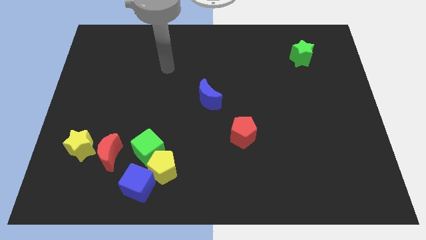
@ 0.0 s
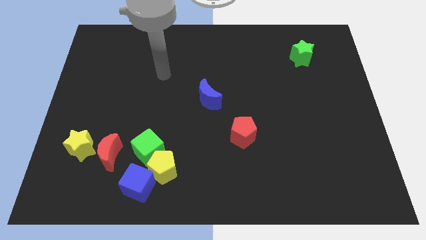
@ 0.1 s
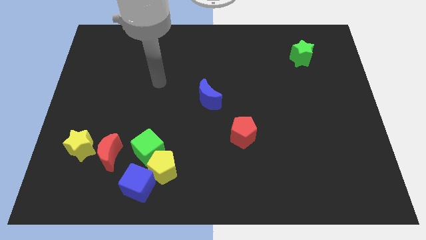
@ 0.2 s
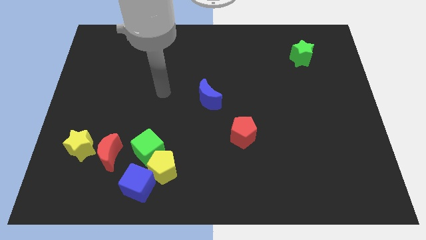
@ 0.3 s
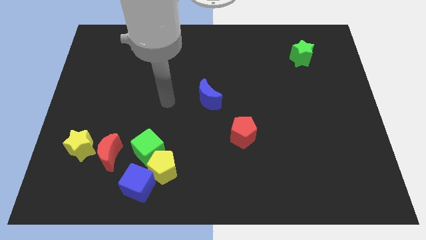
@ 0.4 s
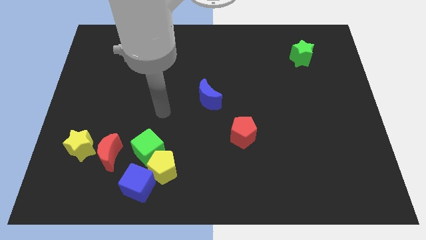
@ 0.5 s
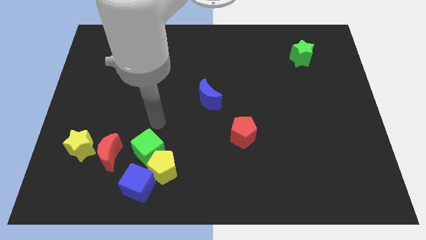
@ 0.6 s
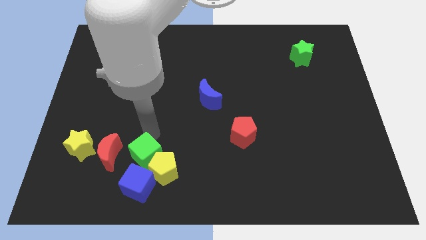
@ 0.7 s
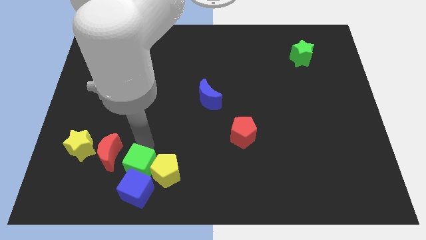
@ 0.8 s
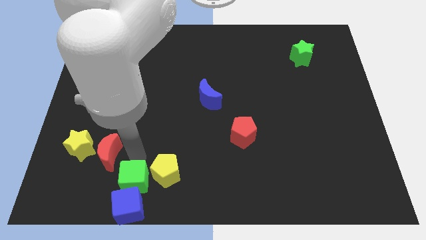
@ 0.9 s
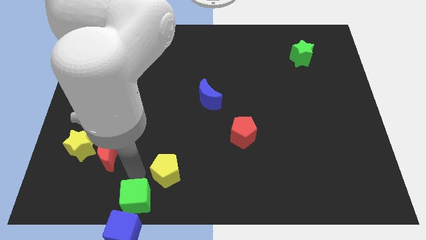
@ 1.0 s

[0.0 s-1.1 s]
separate the yellow pentagon from the green cube and blue cube

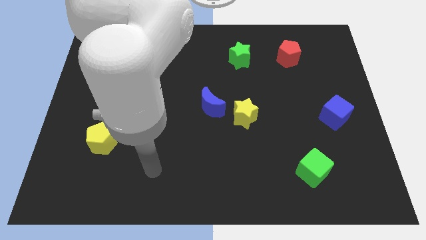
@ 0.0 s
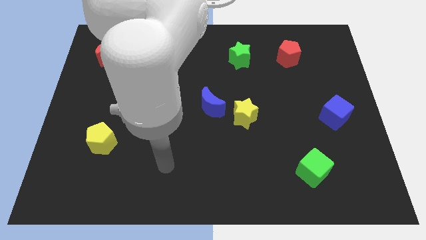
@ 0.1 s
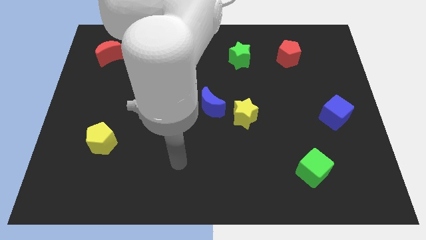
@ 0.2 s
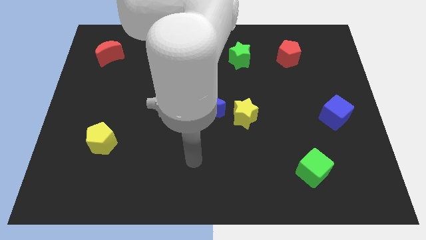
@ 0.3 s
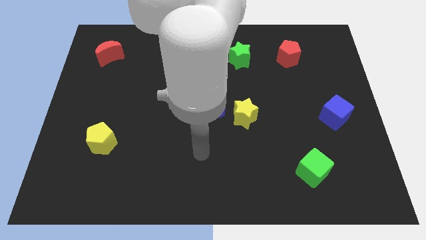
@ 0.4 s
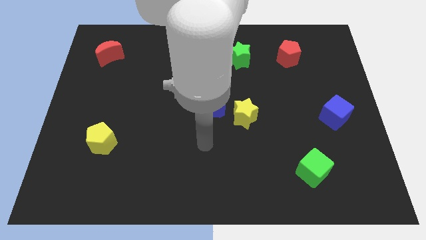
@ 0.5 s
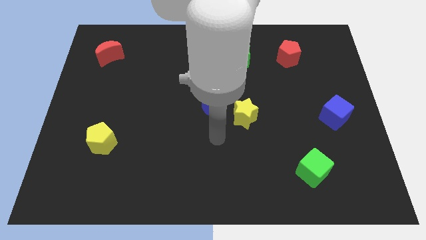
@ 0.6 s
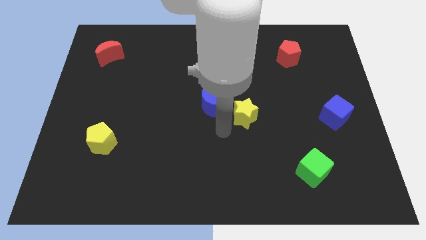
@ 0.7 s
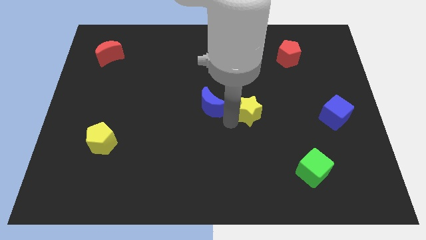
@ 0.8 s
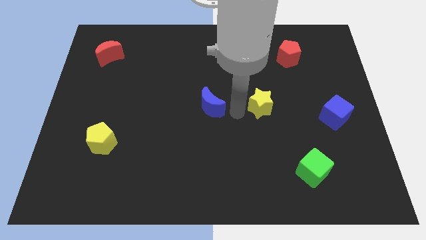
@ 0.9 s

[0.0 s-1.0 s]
move the blue moon away from the yellow star

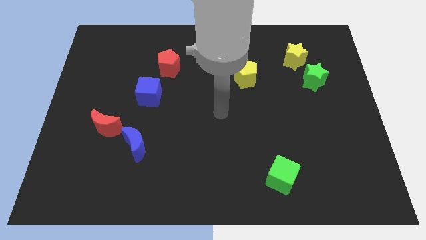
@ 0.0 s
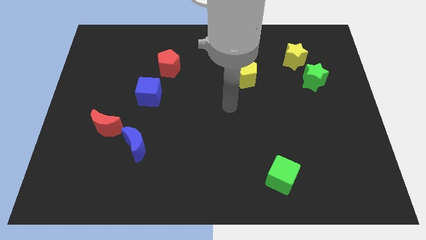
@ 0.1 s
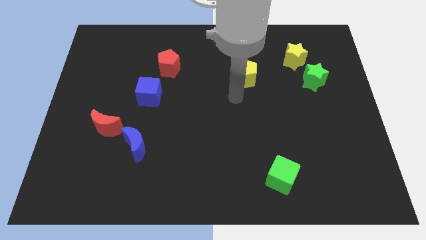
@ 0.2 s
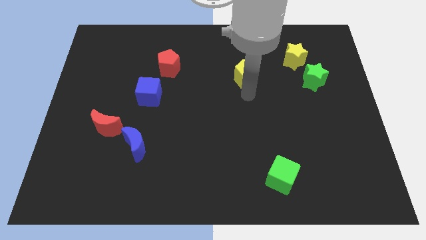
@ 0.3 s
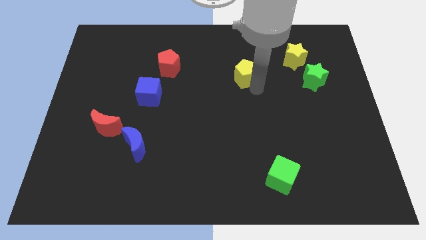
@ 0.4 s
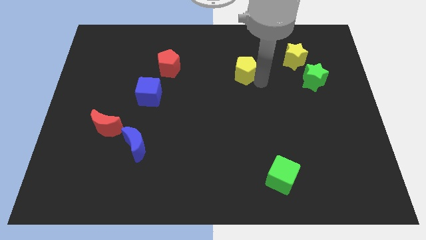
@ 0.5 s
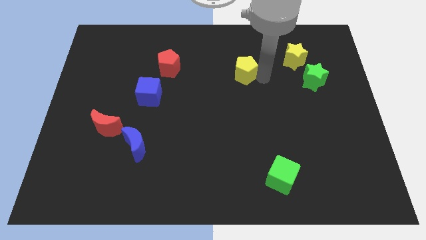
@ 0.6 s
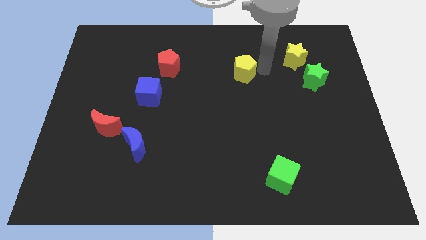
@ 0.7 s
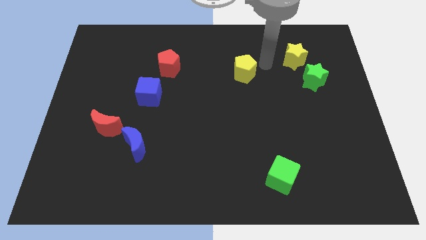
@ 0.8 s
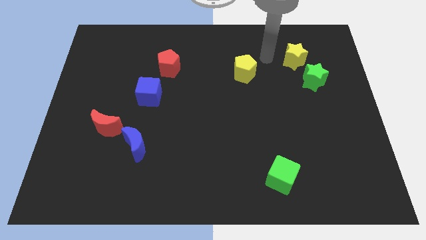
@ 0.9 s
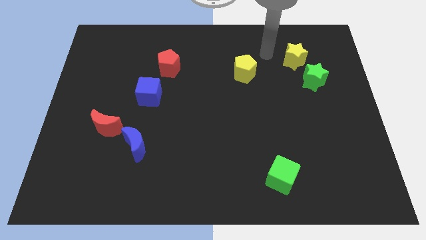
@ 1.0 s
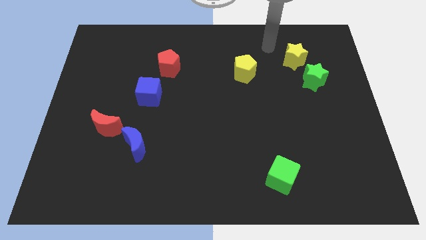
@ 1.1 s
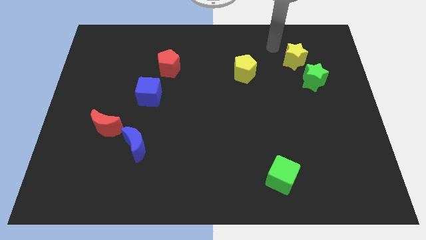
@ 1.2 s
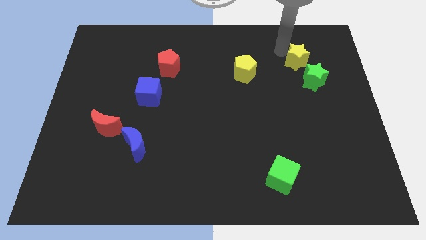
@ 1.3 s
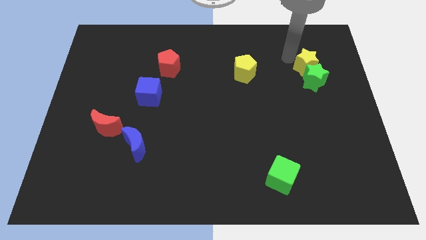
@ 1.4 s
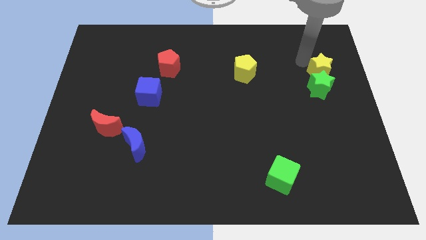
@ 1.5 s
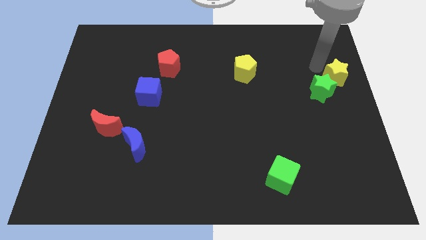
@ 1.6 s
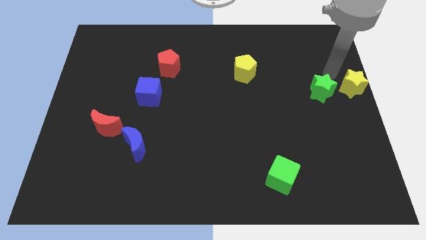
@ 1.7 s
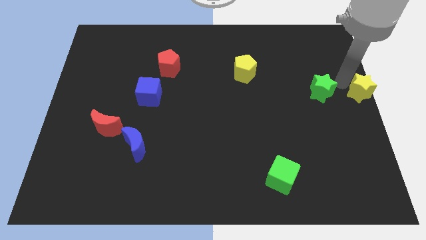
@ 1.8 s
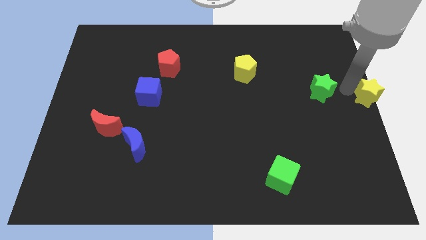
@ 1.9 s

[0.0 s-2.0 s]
pull the green star apart from the yellow star

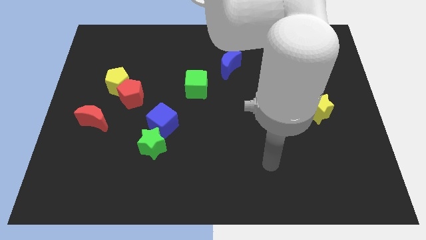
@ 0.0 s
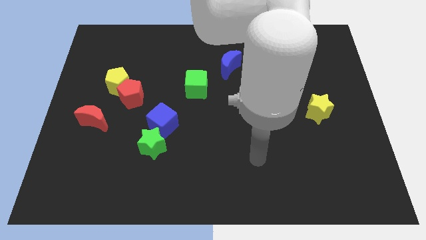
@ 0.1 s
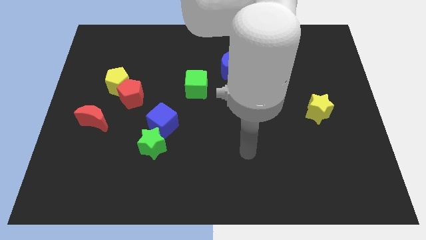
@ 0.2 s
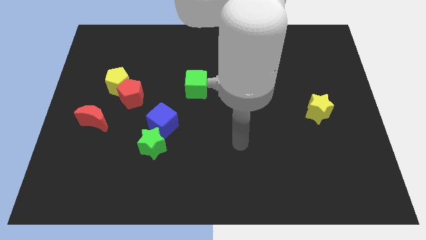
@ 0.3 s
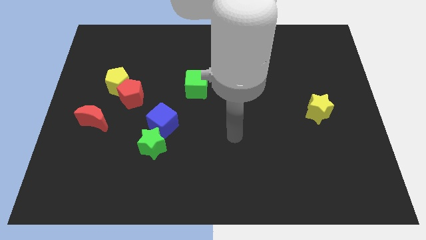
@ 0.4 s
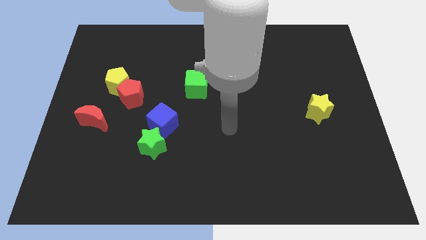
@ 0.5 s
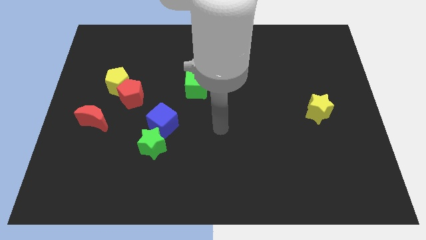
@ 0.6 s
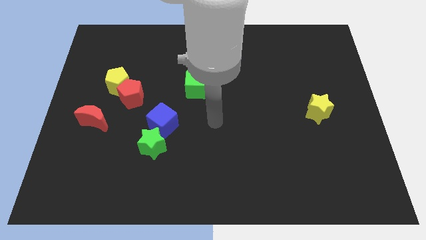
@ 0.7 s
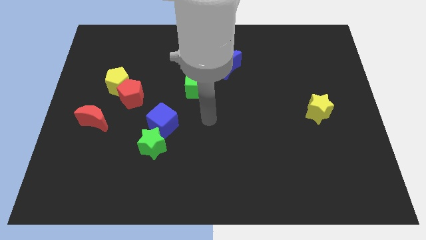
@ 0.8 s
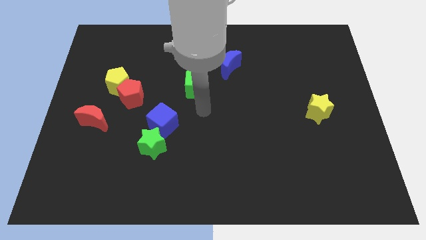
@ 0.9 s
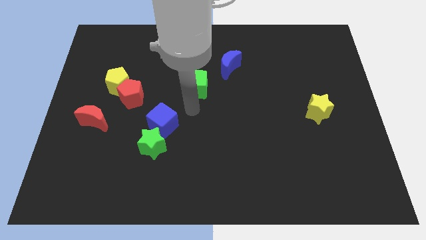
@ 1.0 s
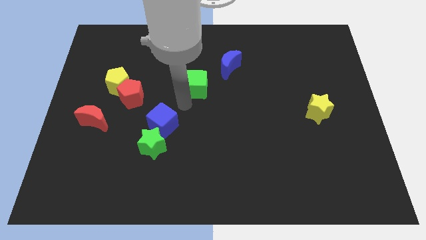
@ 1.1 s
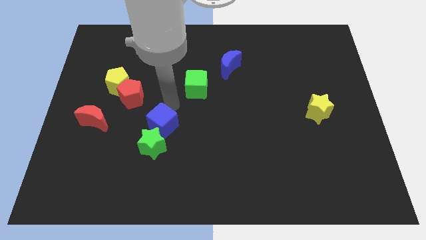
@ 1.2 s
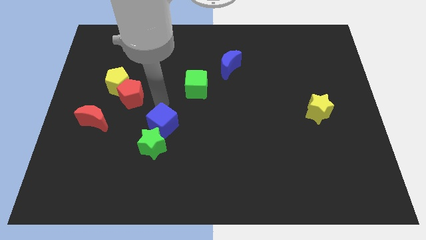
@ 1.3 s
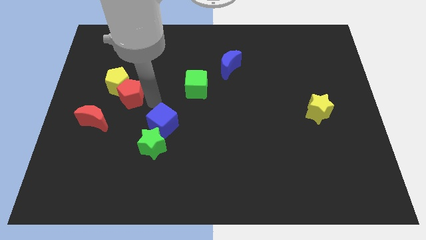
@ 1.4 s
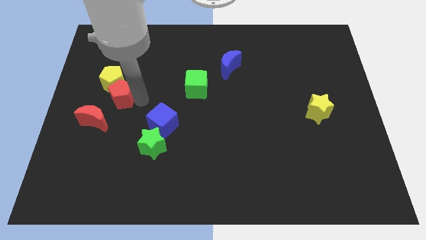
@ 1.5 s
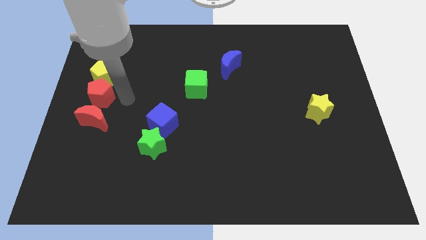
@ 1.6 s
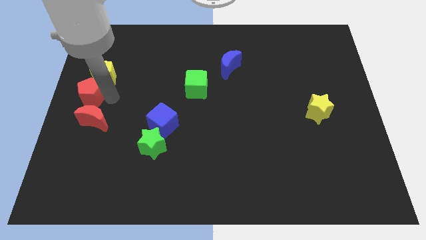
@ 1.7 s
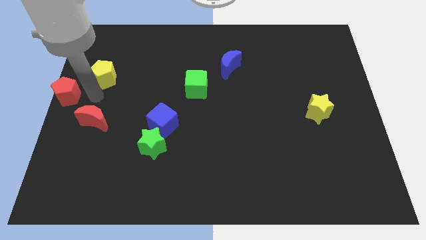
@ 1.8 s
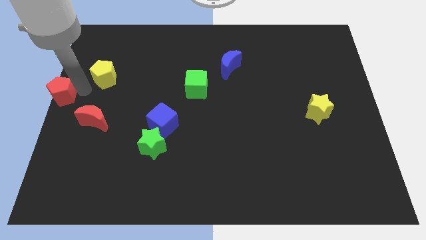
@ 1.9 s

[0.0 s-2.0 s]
pull the yellow pentagon apart from the red pentagon

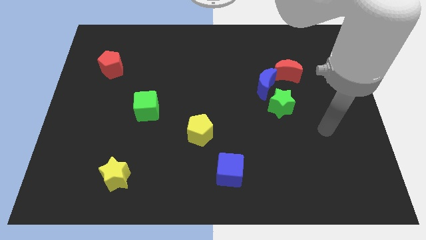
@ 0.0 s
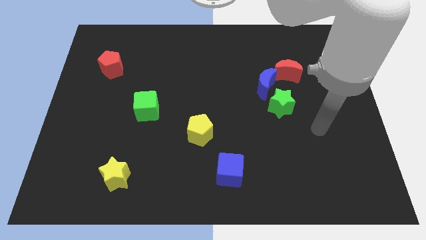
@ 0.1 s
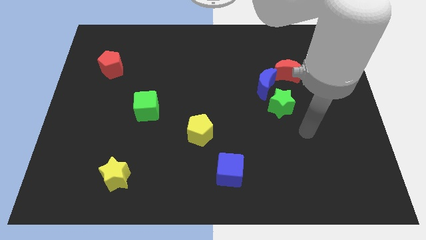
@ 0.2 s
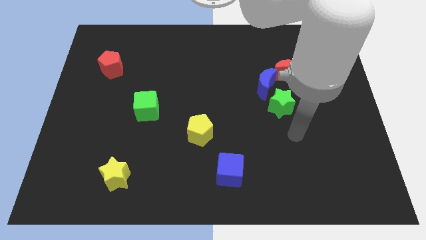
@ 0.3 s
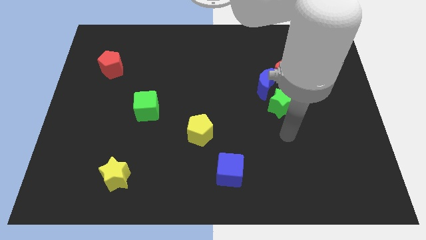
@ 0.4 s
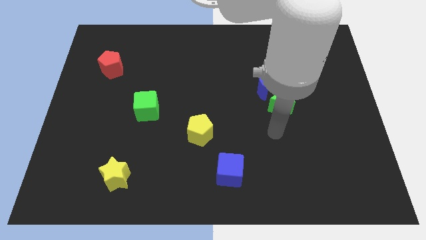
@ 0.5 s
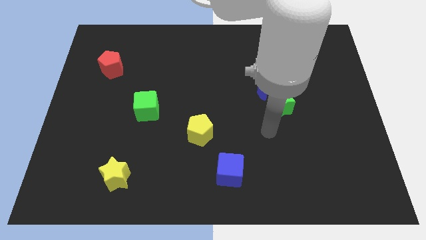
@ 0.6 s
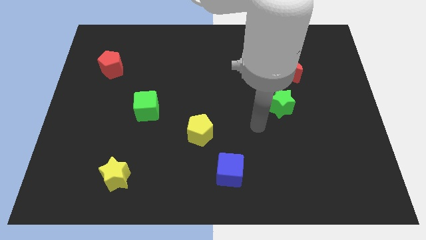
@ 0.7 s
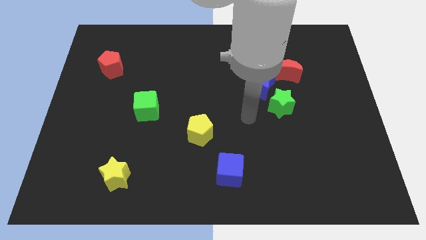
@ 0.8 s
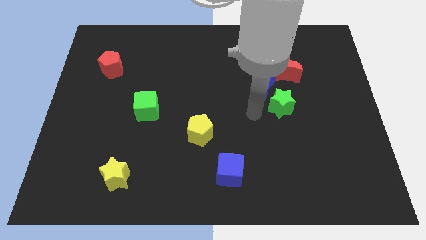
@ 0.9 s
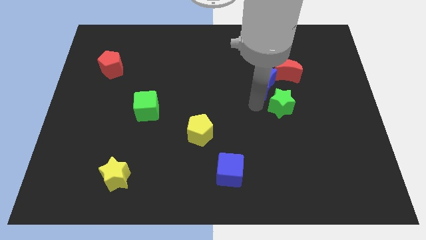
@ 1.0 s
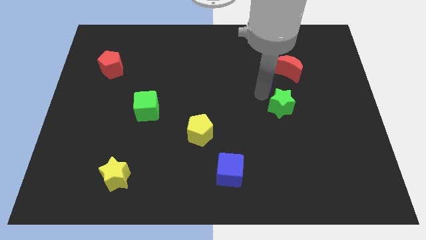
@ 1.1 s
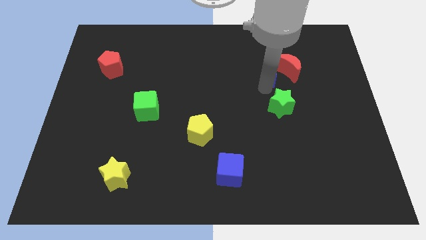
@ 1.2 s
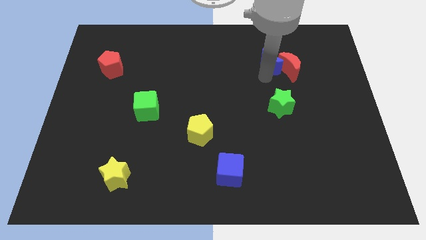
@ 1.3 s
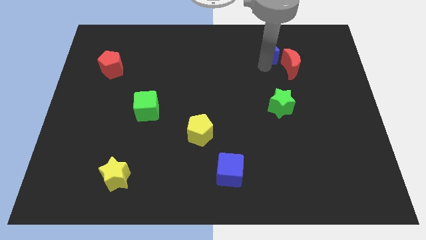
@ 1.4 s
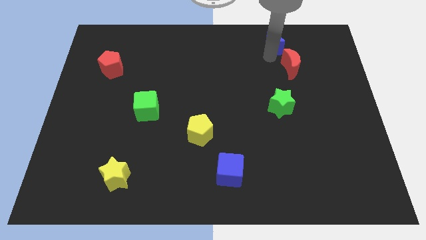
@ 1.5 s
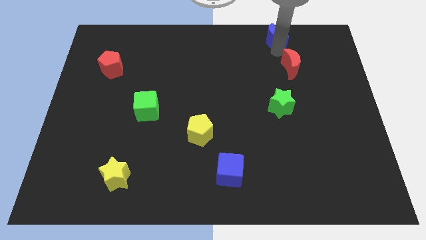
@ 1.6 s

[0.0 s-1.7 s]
move the red moon away from the blue moon

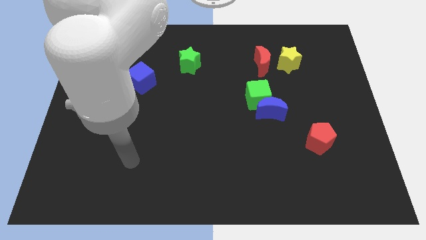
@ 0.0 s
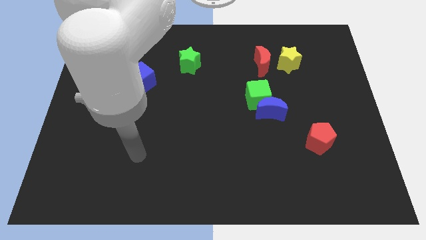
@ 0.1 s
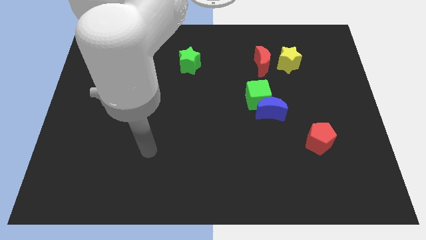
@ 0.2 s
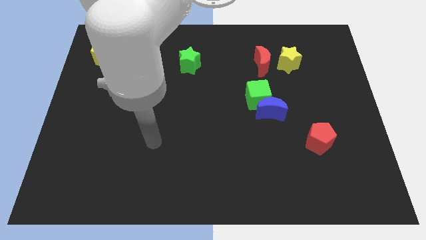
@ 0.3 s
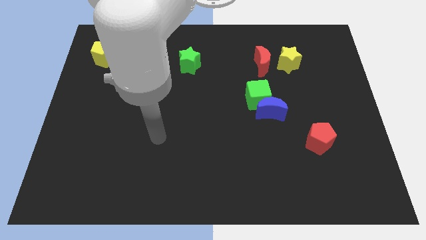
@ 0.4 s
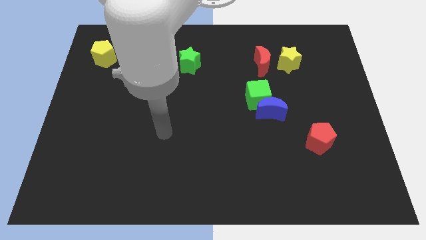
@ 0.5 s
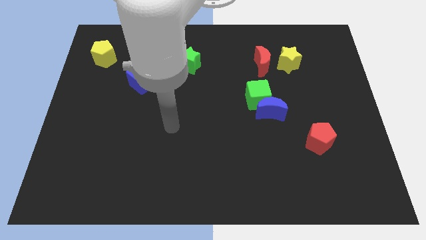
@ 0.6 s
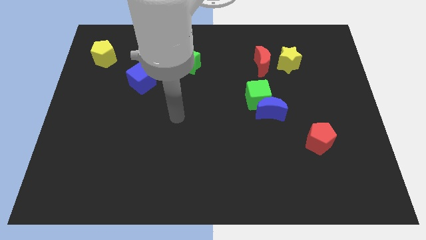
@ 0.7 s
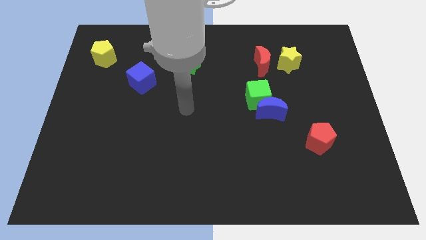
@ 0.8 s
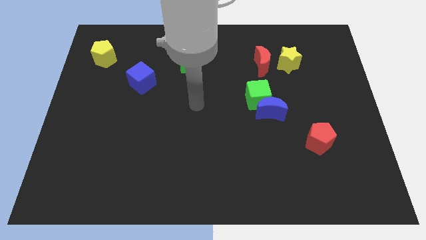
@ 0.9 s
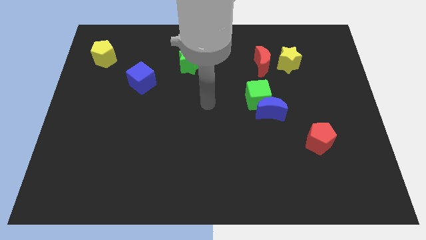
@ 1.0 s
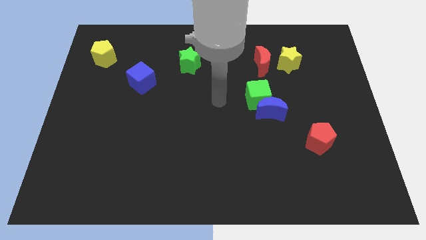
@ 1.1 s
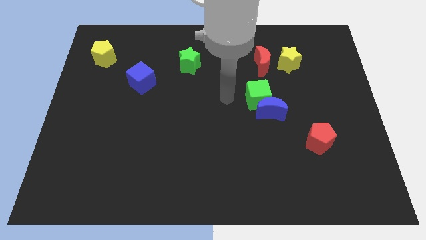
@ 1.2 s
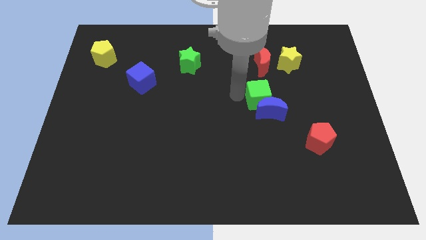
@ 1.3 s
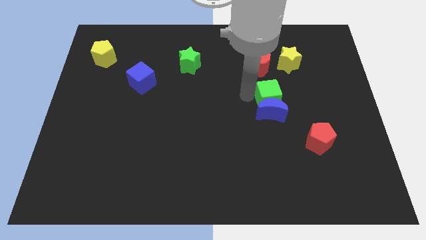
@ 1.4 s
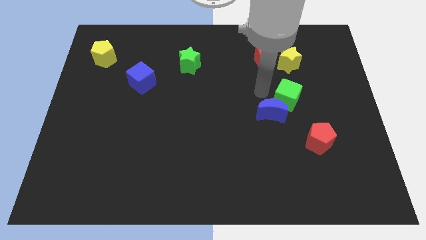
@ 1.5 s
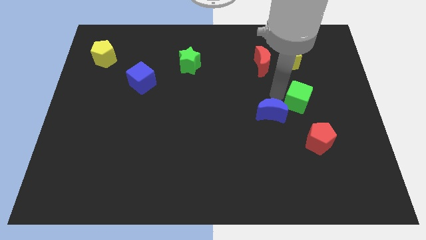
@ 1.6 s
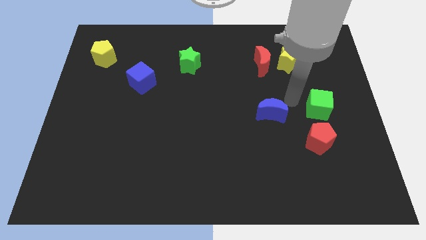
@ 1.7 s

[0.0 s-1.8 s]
move the blue moon away from the green cube
